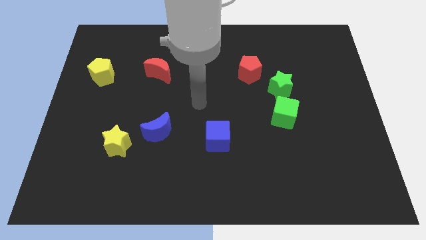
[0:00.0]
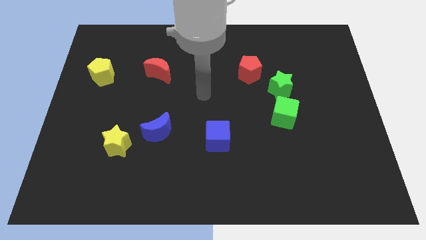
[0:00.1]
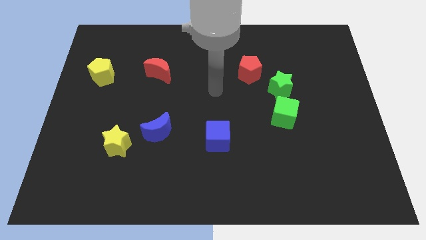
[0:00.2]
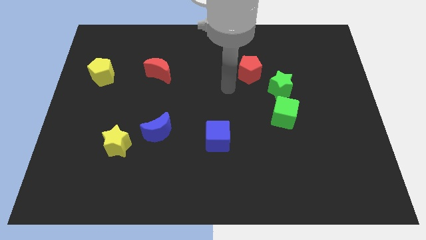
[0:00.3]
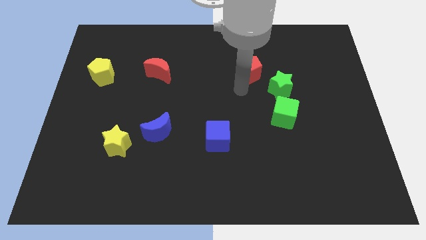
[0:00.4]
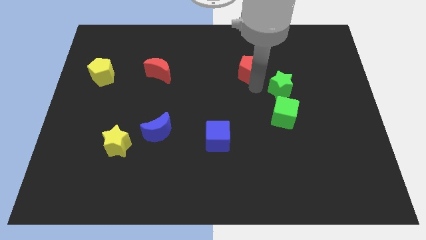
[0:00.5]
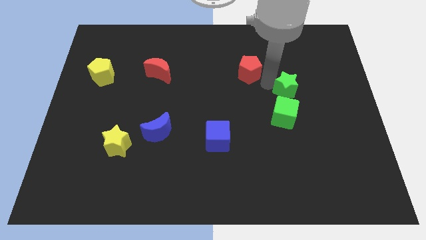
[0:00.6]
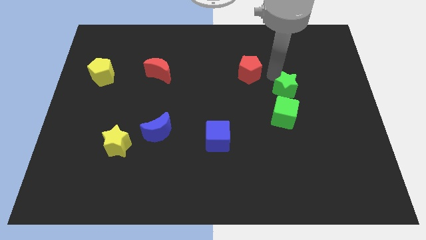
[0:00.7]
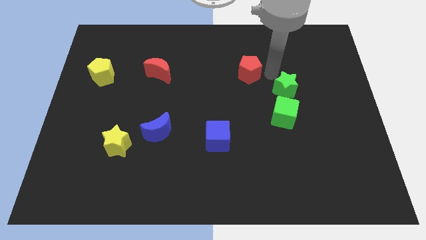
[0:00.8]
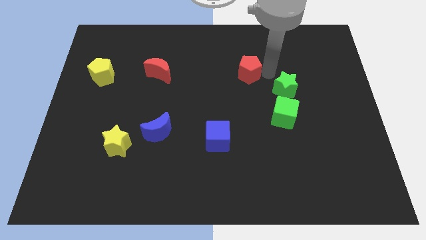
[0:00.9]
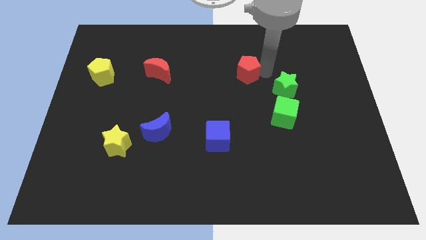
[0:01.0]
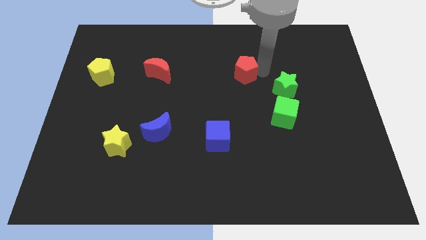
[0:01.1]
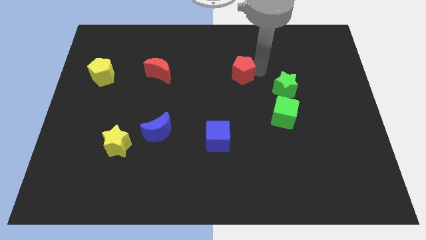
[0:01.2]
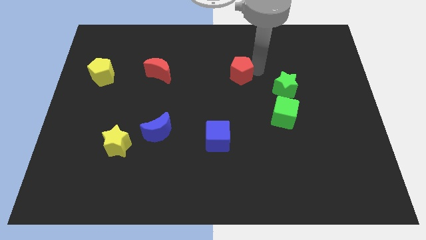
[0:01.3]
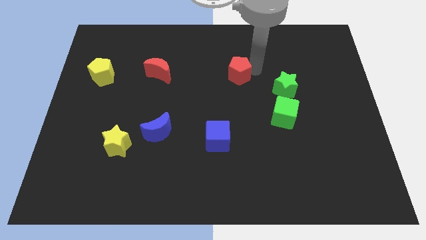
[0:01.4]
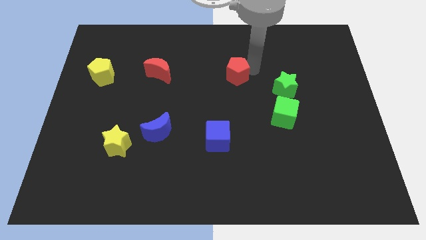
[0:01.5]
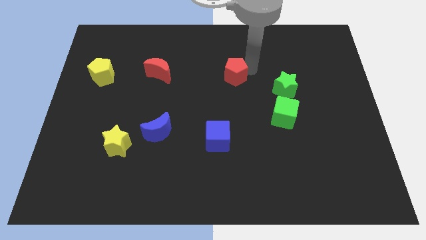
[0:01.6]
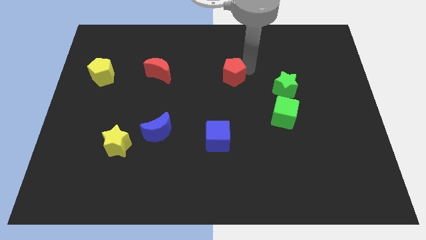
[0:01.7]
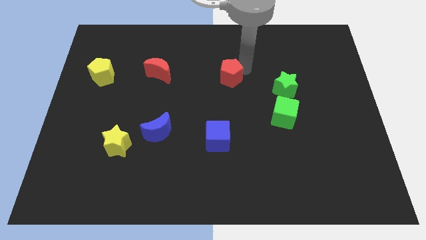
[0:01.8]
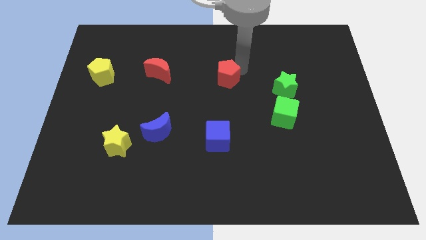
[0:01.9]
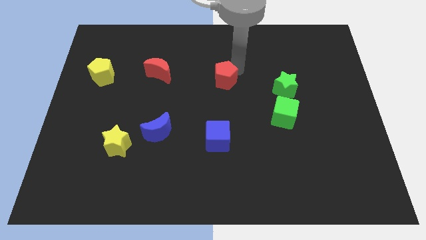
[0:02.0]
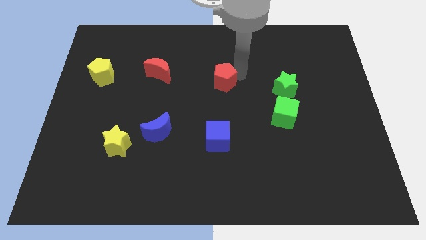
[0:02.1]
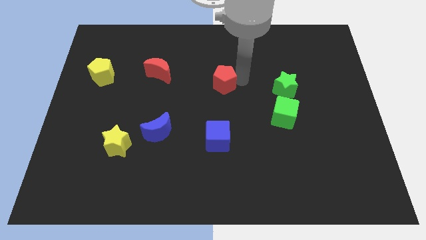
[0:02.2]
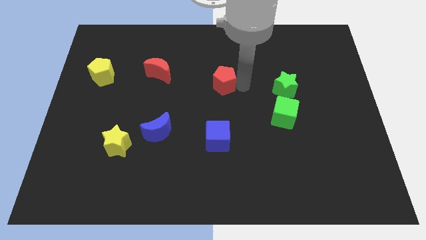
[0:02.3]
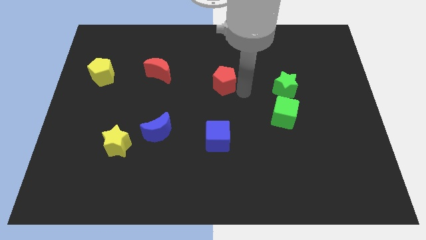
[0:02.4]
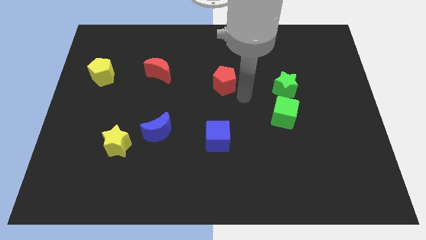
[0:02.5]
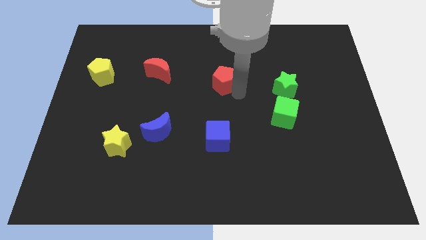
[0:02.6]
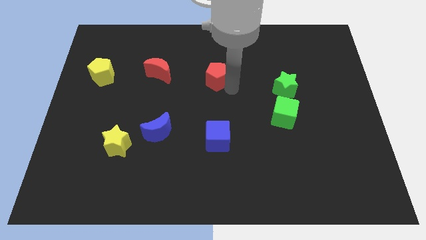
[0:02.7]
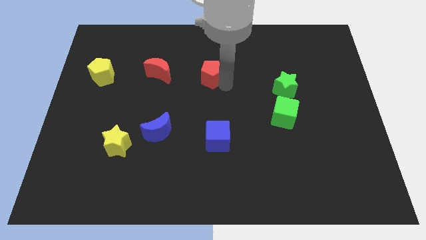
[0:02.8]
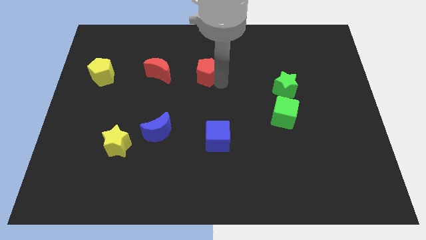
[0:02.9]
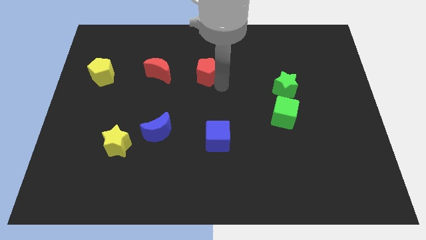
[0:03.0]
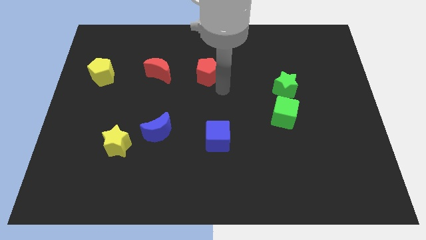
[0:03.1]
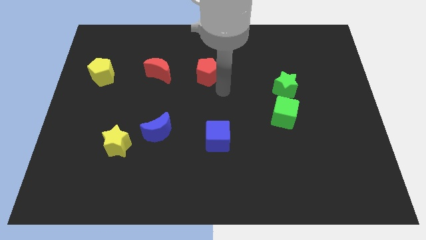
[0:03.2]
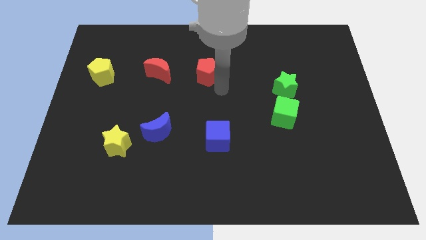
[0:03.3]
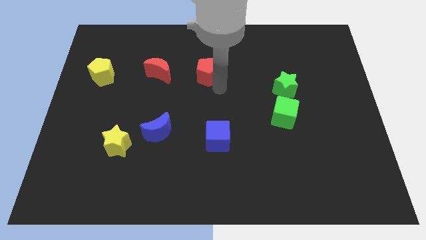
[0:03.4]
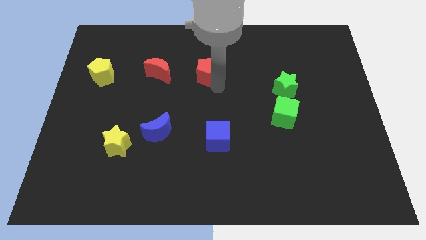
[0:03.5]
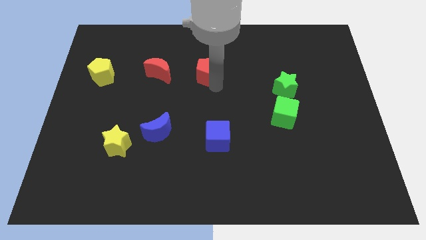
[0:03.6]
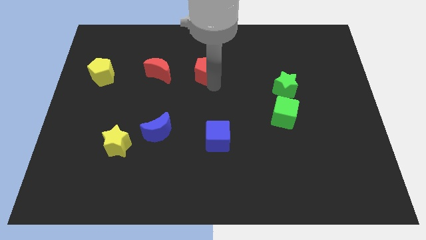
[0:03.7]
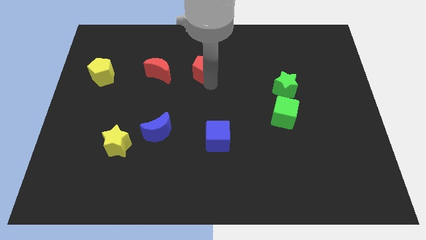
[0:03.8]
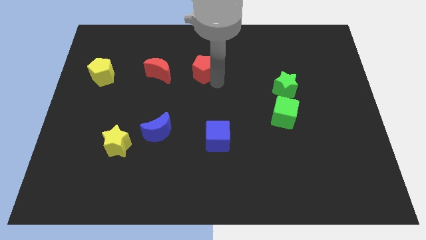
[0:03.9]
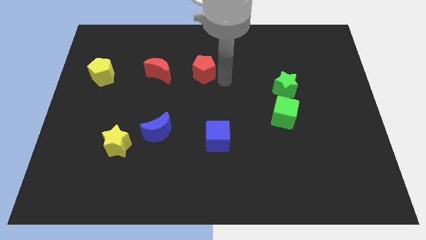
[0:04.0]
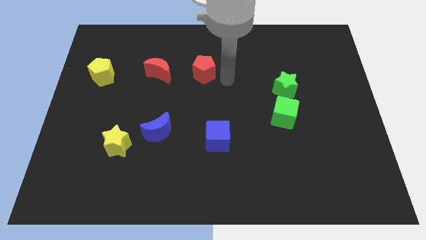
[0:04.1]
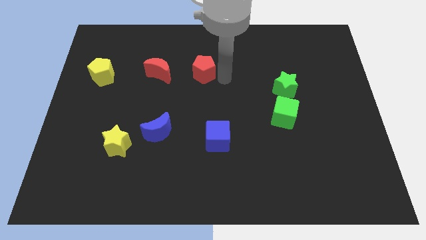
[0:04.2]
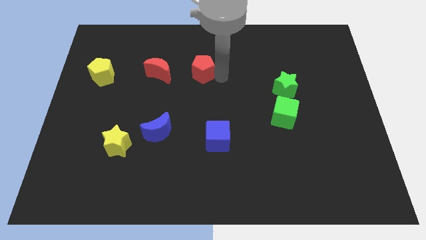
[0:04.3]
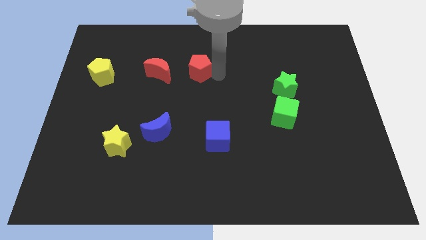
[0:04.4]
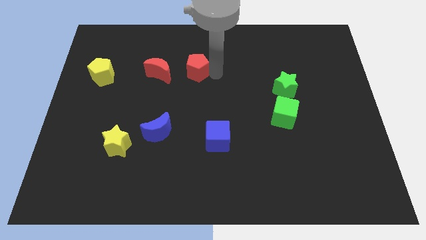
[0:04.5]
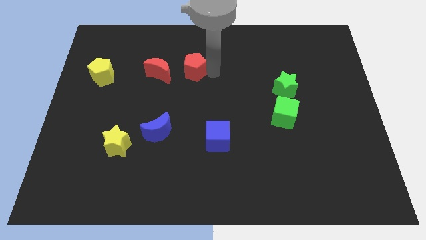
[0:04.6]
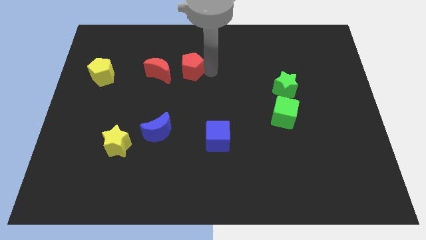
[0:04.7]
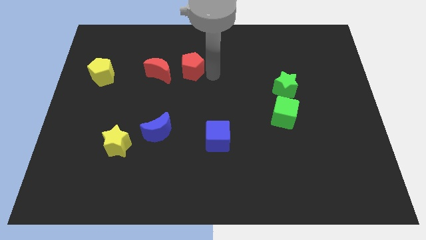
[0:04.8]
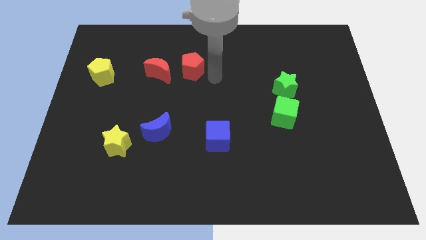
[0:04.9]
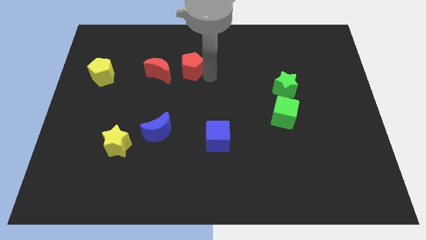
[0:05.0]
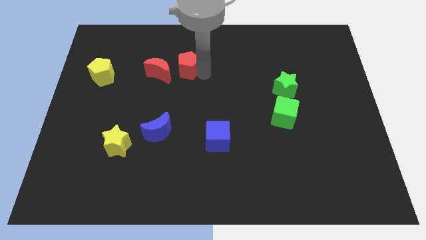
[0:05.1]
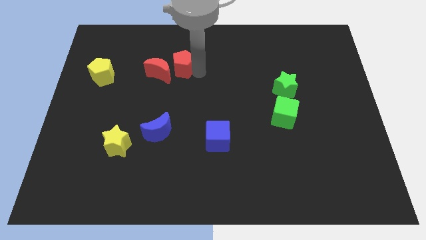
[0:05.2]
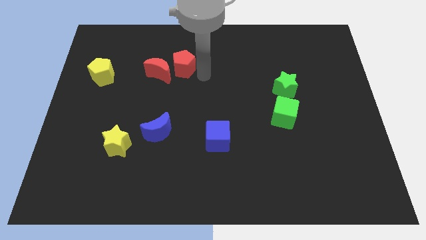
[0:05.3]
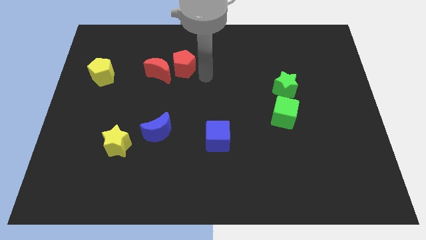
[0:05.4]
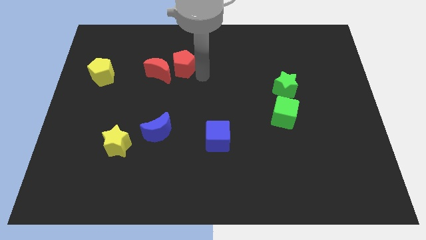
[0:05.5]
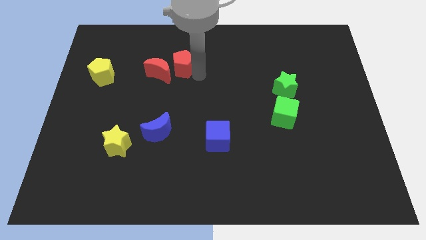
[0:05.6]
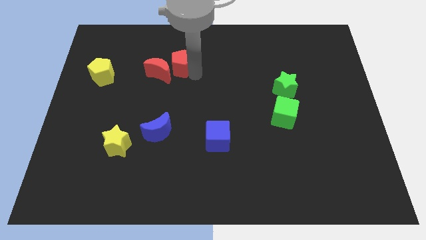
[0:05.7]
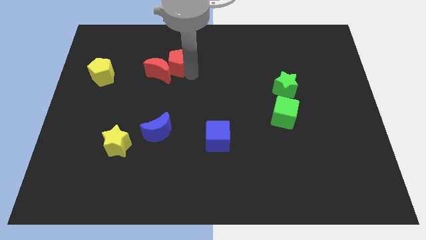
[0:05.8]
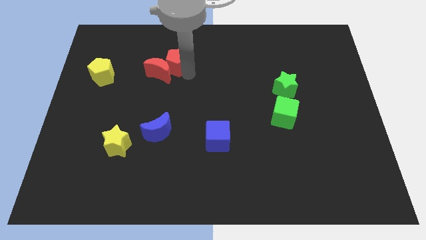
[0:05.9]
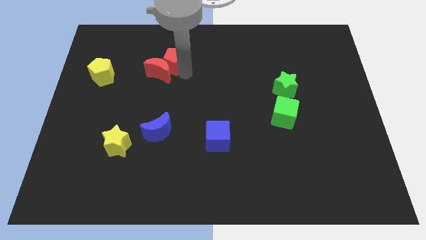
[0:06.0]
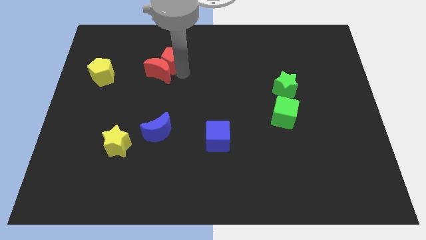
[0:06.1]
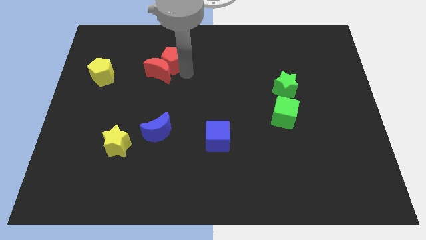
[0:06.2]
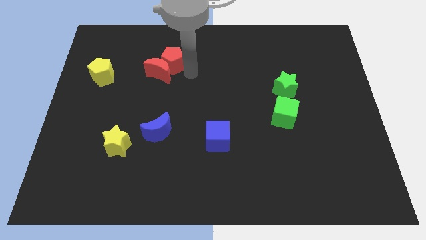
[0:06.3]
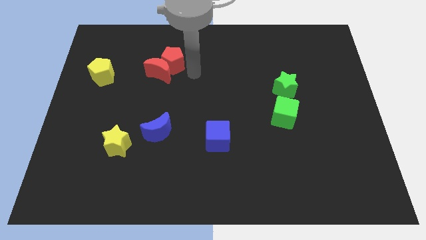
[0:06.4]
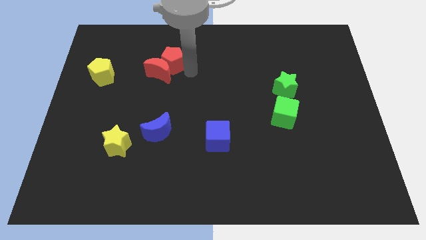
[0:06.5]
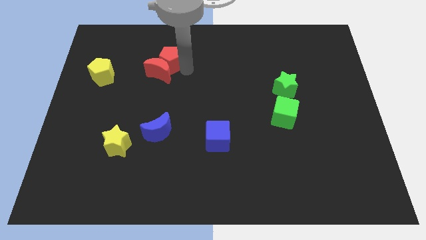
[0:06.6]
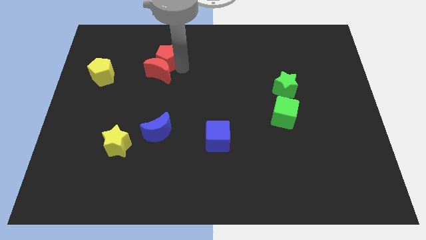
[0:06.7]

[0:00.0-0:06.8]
push the red pentagon to the top left of the red moon

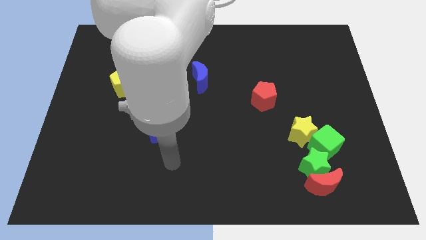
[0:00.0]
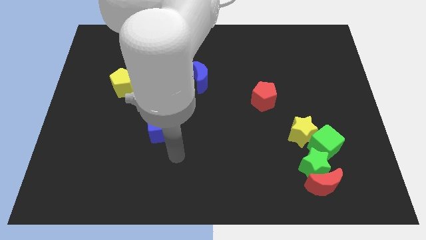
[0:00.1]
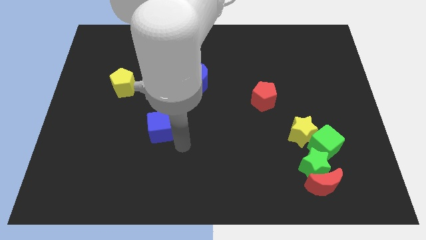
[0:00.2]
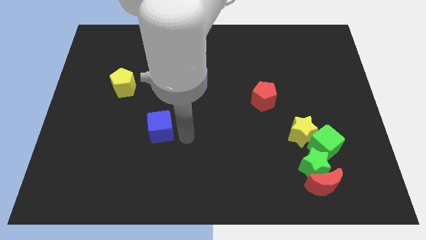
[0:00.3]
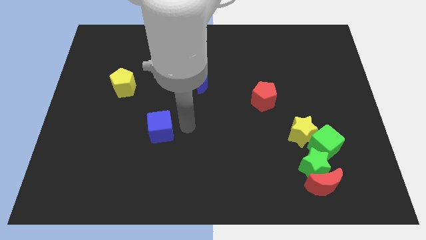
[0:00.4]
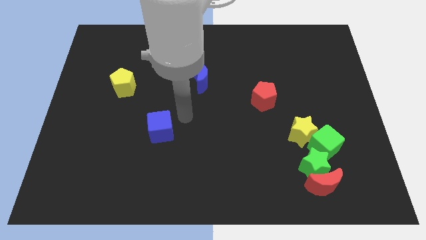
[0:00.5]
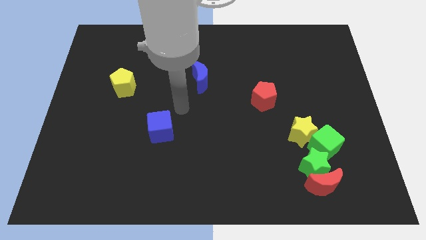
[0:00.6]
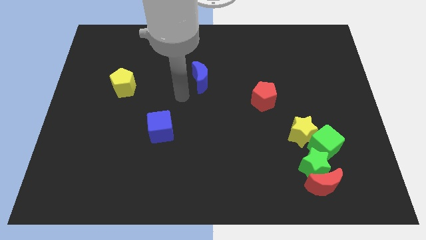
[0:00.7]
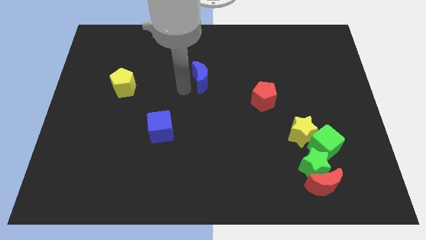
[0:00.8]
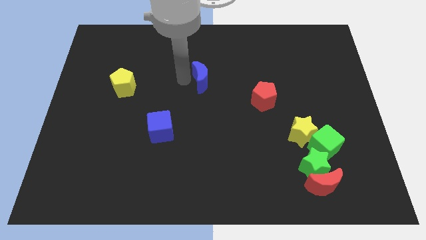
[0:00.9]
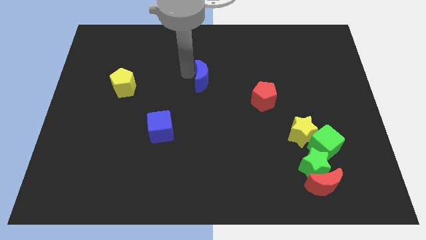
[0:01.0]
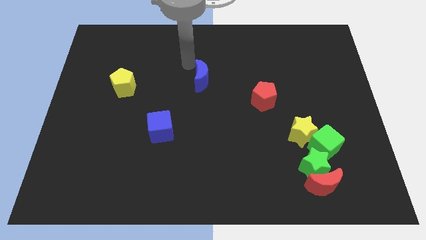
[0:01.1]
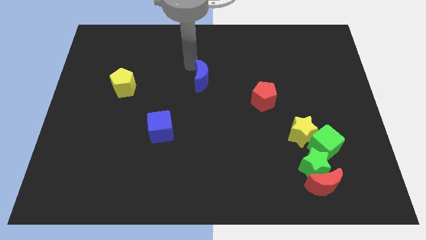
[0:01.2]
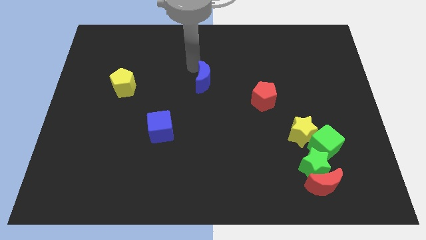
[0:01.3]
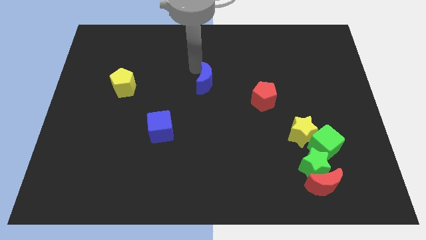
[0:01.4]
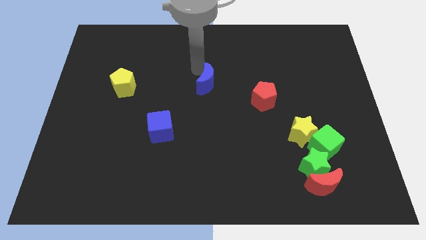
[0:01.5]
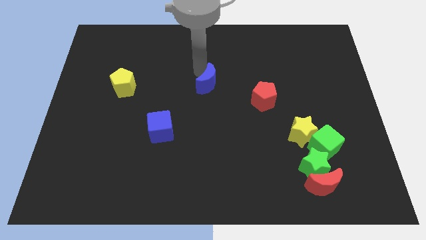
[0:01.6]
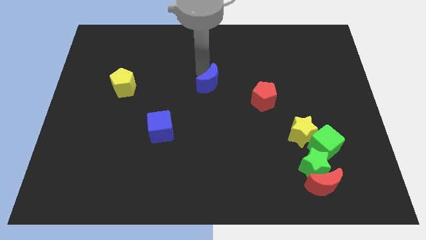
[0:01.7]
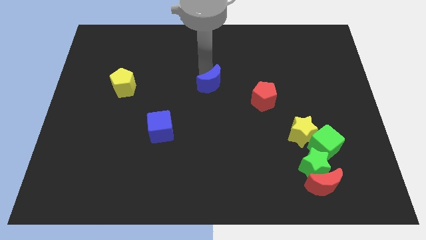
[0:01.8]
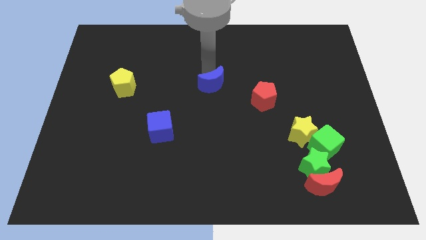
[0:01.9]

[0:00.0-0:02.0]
push the blue moon to the left of the red pentagon
